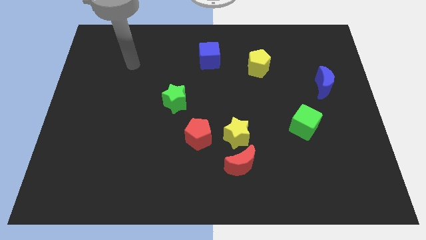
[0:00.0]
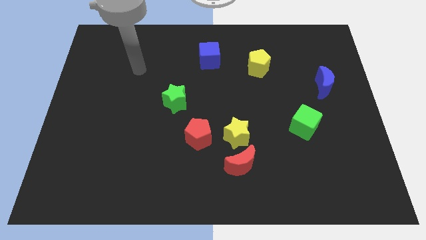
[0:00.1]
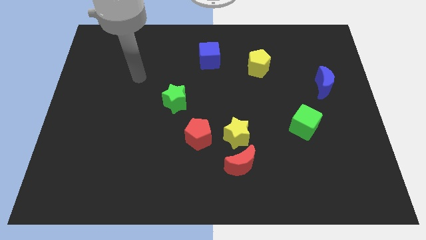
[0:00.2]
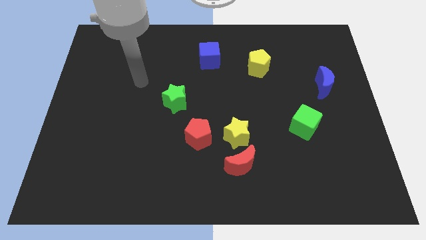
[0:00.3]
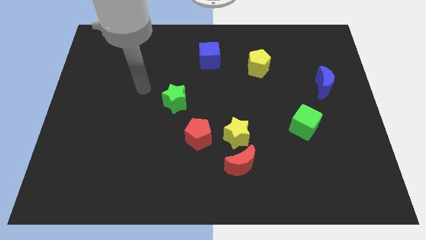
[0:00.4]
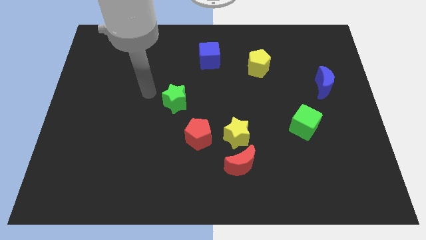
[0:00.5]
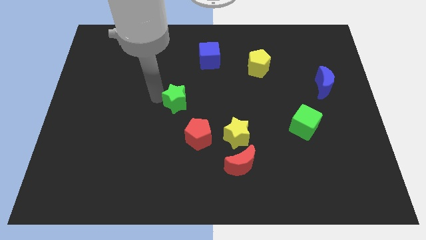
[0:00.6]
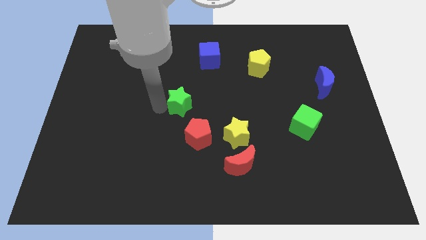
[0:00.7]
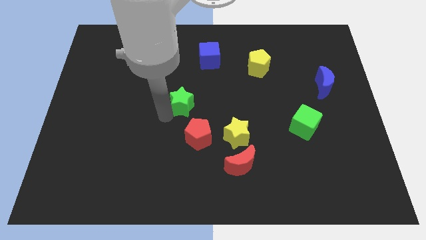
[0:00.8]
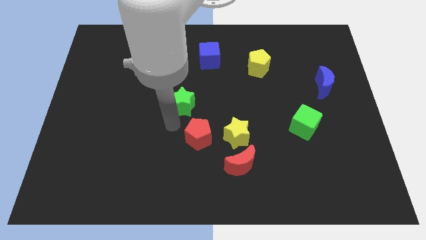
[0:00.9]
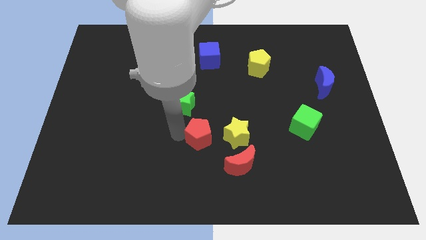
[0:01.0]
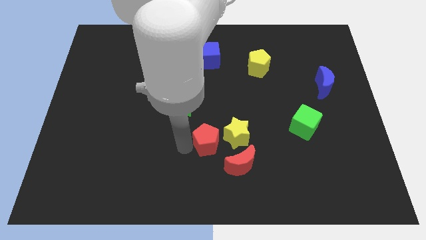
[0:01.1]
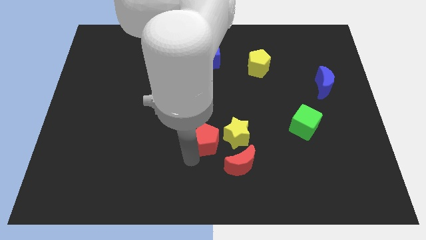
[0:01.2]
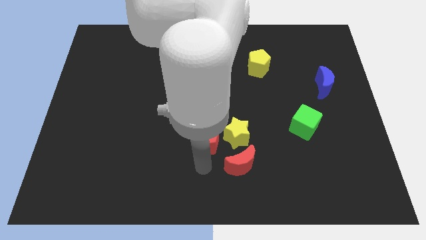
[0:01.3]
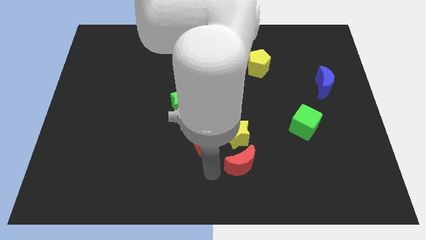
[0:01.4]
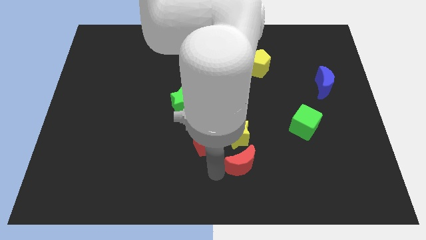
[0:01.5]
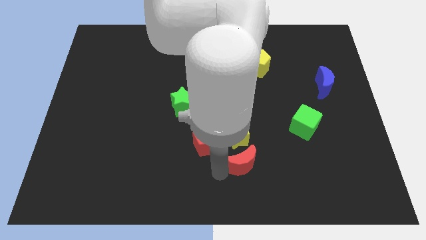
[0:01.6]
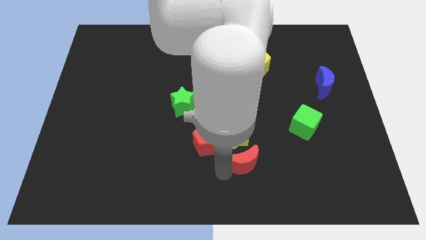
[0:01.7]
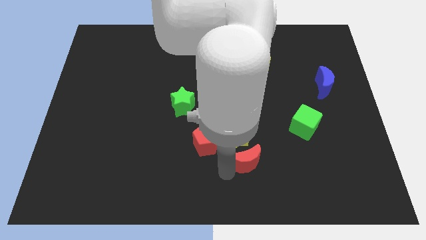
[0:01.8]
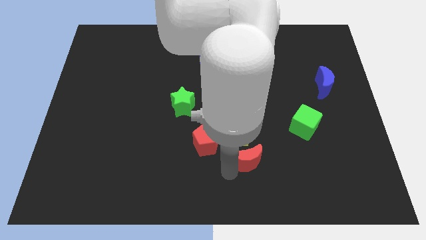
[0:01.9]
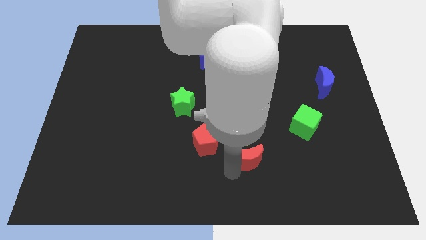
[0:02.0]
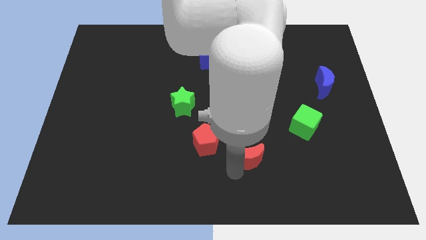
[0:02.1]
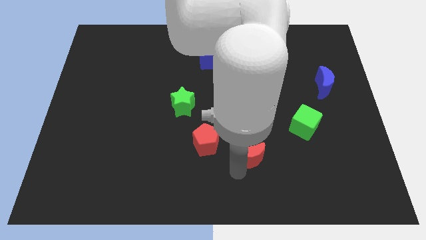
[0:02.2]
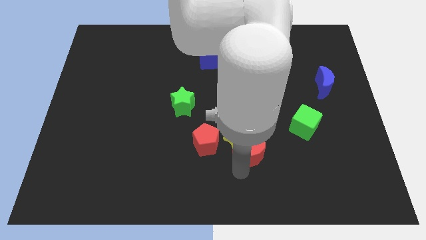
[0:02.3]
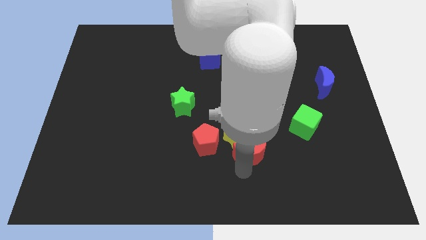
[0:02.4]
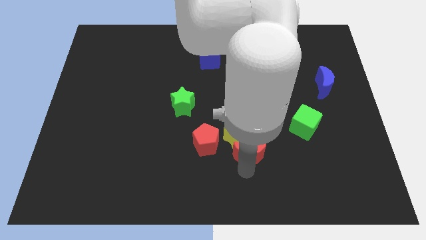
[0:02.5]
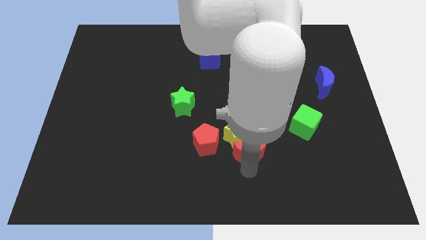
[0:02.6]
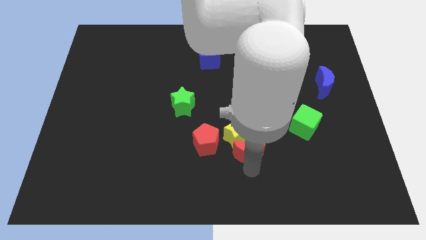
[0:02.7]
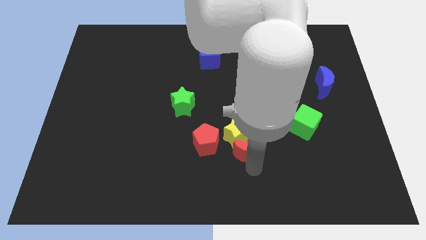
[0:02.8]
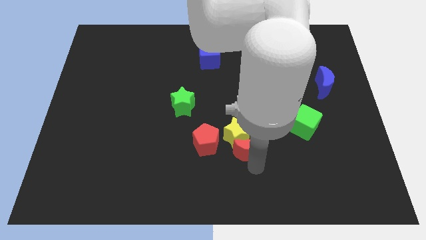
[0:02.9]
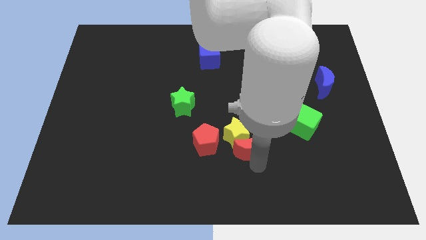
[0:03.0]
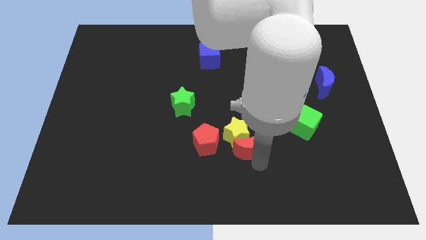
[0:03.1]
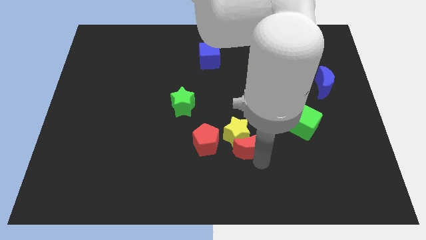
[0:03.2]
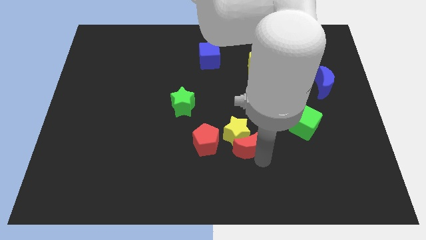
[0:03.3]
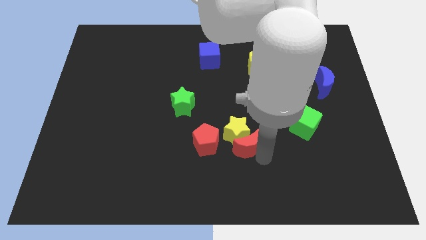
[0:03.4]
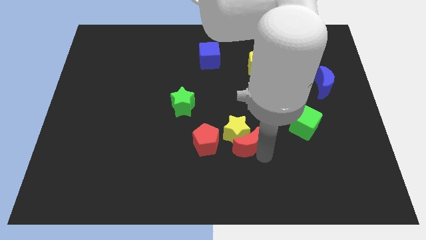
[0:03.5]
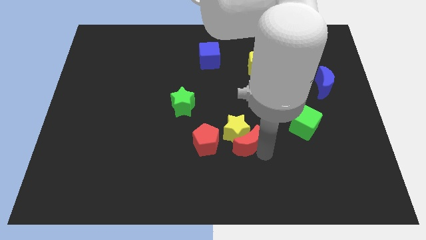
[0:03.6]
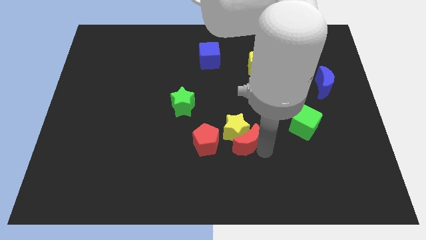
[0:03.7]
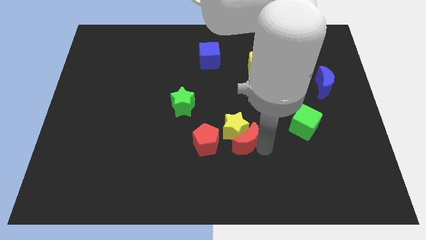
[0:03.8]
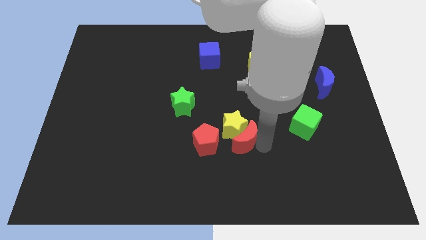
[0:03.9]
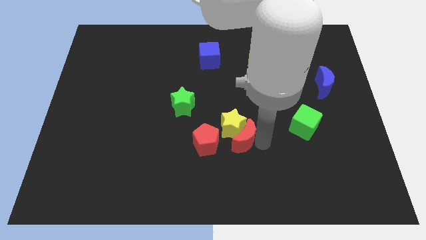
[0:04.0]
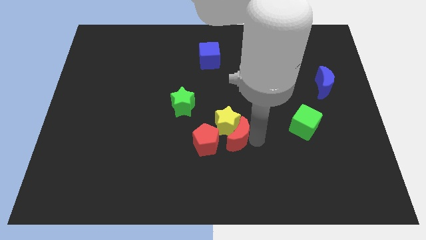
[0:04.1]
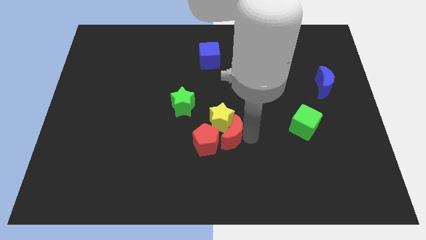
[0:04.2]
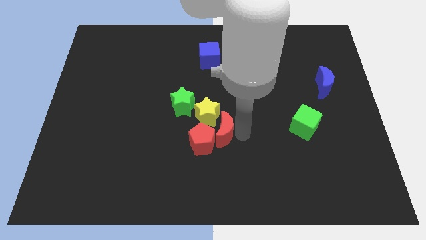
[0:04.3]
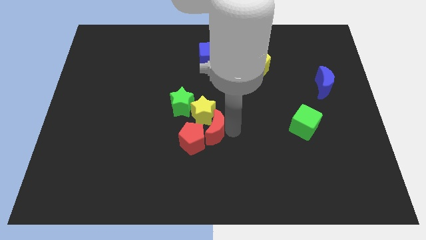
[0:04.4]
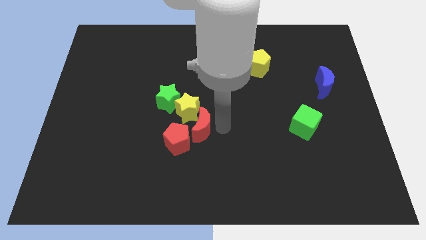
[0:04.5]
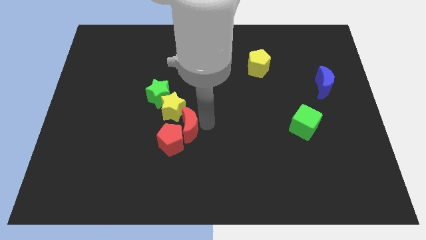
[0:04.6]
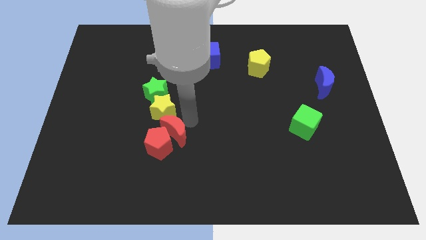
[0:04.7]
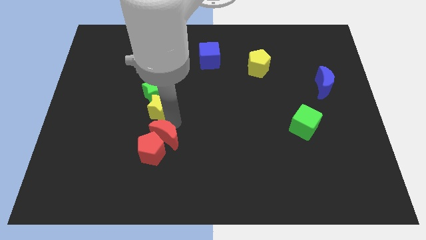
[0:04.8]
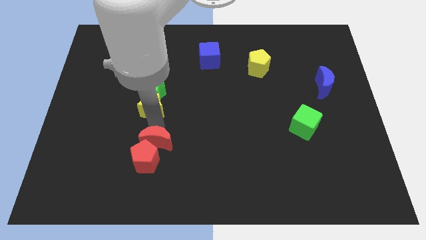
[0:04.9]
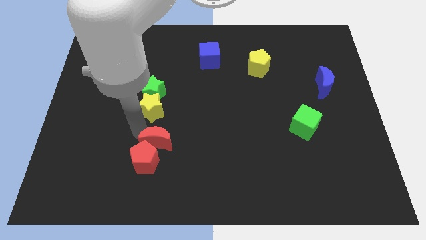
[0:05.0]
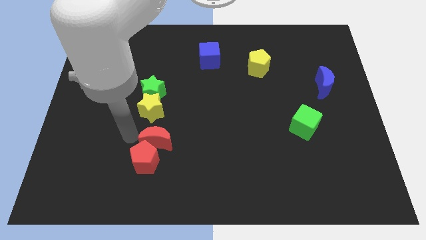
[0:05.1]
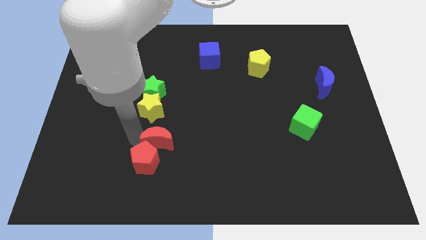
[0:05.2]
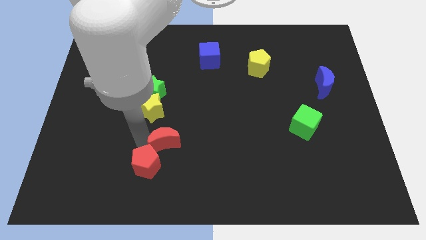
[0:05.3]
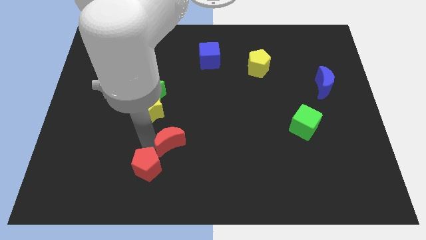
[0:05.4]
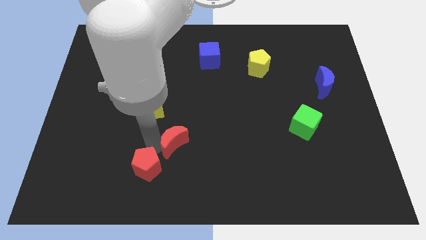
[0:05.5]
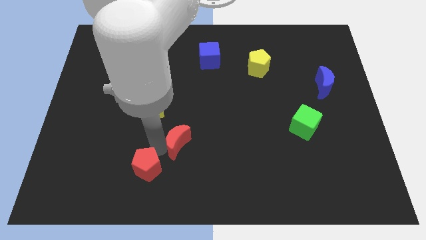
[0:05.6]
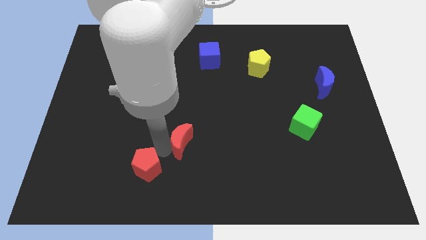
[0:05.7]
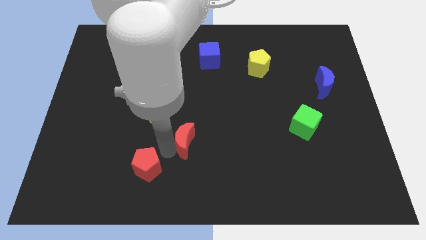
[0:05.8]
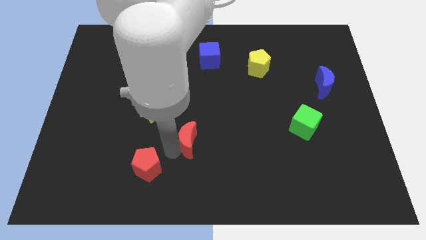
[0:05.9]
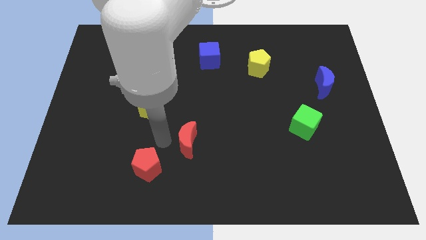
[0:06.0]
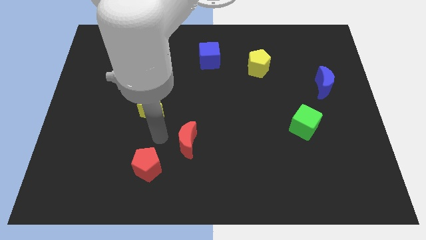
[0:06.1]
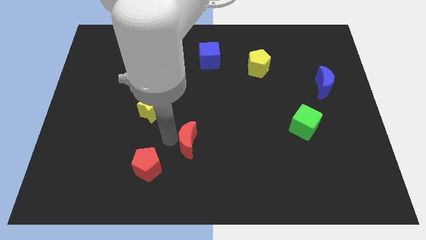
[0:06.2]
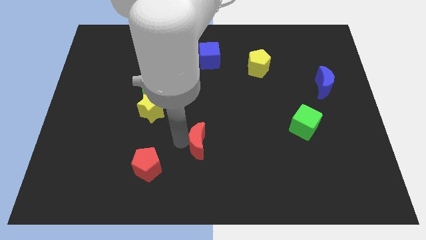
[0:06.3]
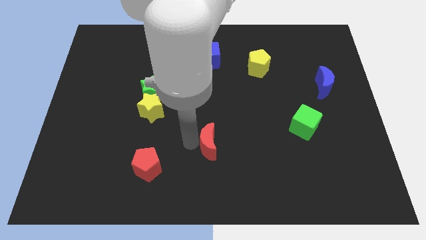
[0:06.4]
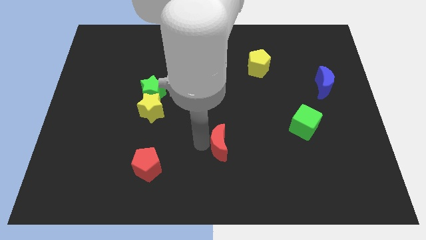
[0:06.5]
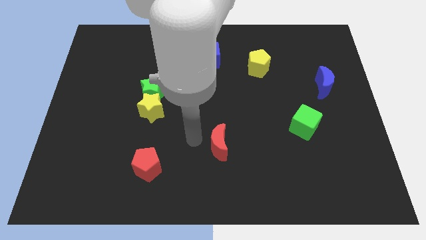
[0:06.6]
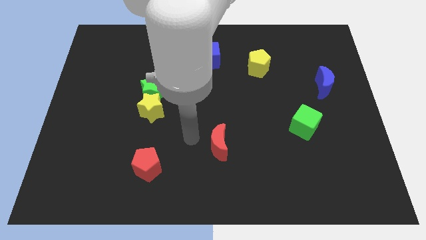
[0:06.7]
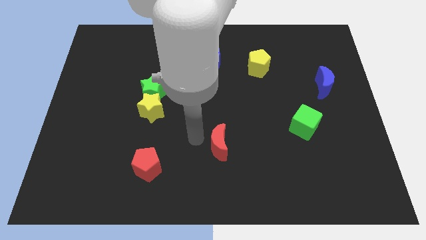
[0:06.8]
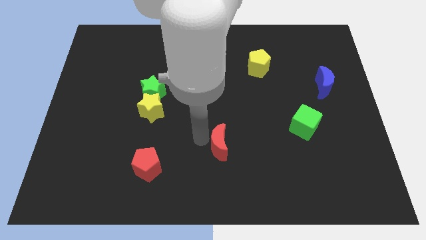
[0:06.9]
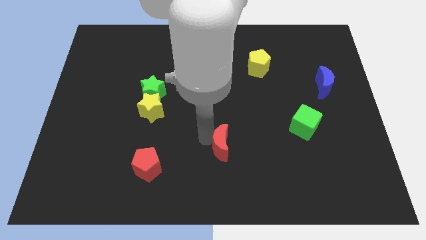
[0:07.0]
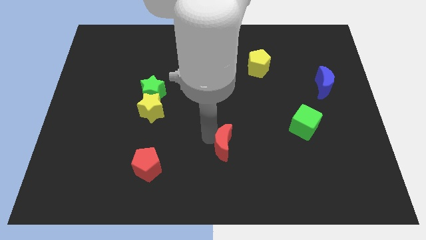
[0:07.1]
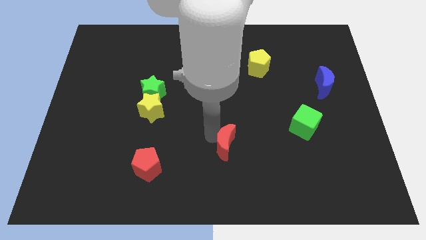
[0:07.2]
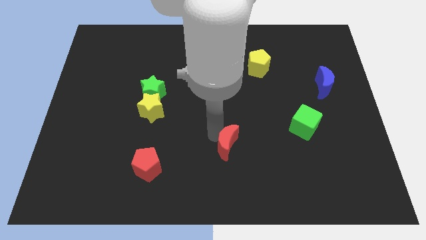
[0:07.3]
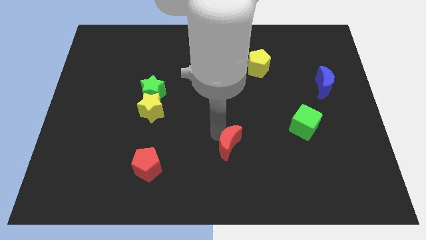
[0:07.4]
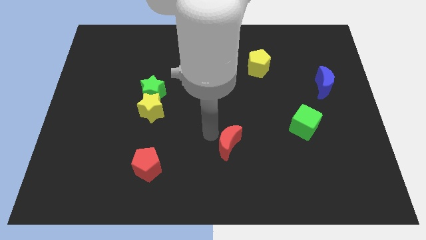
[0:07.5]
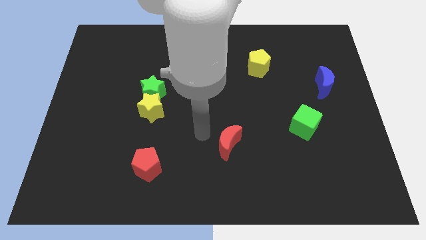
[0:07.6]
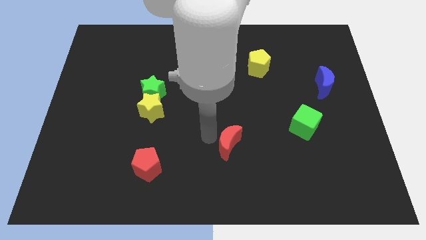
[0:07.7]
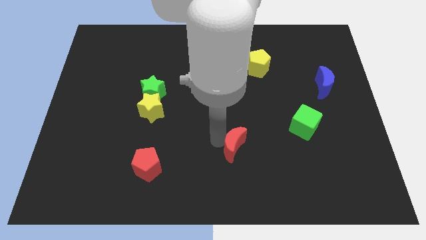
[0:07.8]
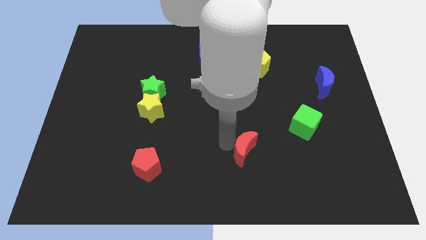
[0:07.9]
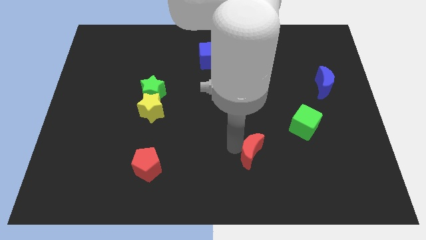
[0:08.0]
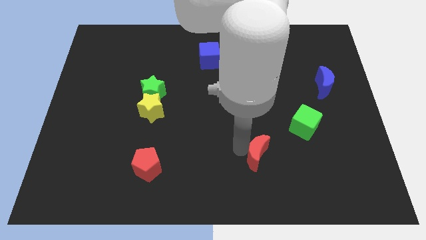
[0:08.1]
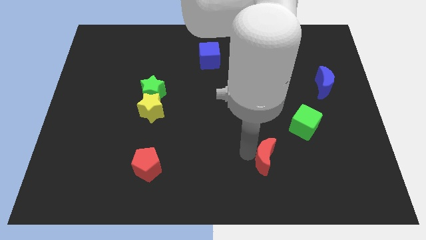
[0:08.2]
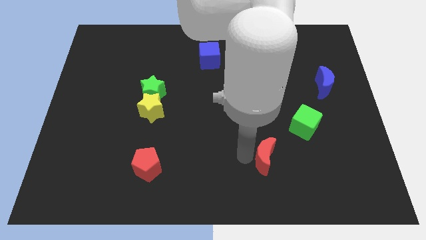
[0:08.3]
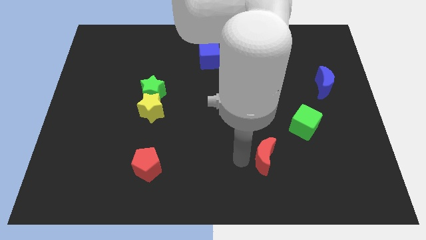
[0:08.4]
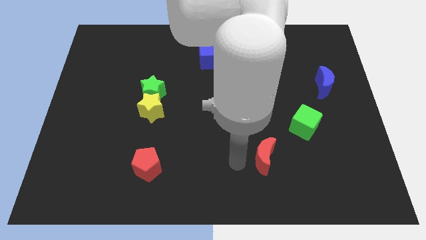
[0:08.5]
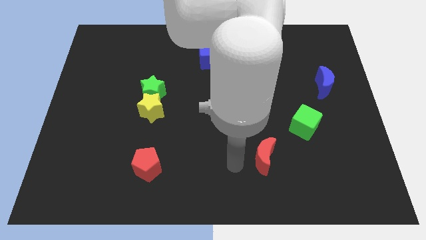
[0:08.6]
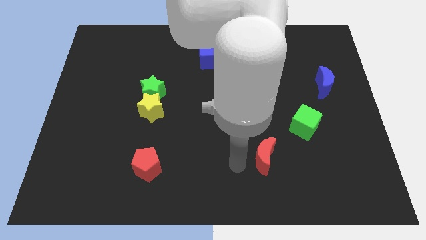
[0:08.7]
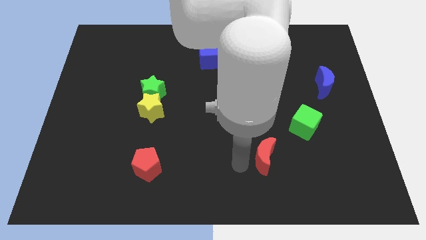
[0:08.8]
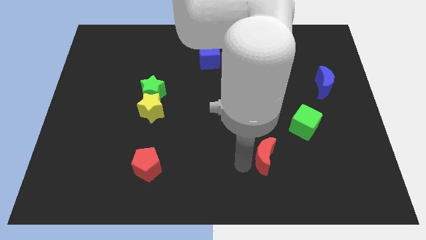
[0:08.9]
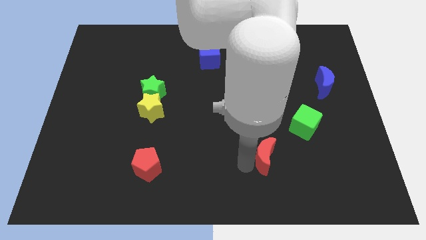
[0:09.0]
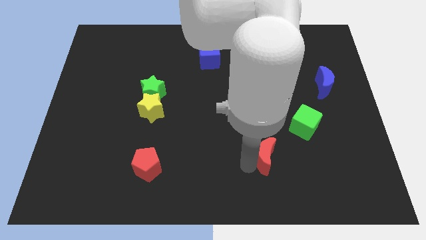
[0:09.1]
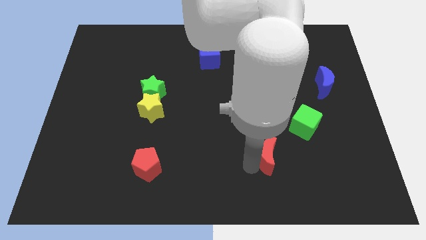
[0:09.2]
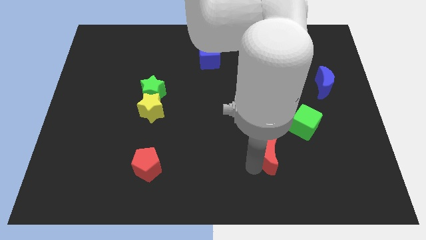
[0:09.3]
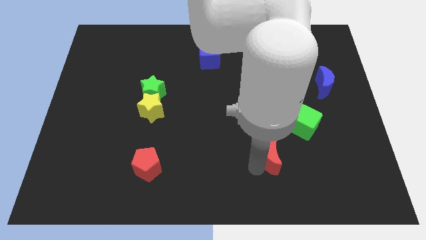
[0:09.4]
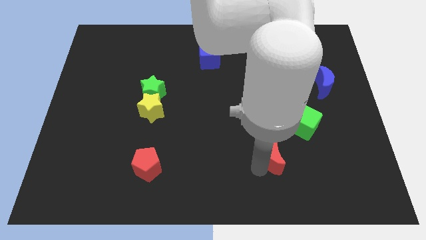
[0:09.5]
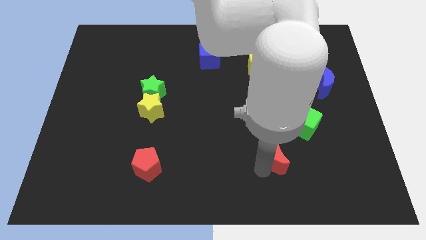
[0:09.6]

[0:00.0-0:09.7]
push the red moon to the right a little
